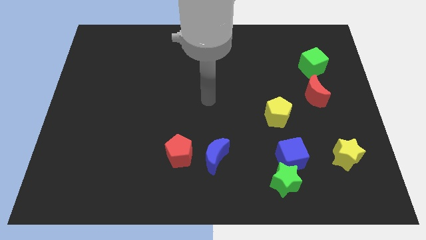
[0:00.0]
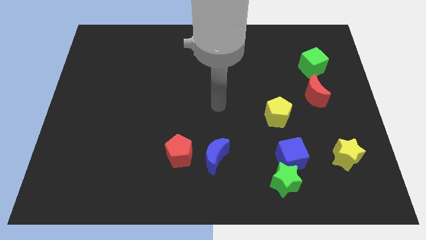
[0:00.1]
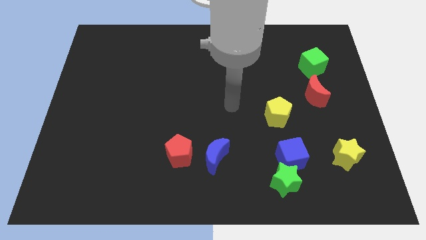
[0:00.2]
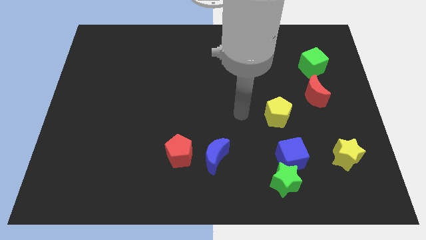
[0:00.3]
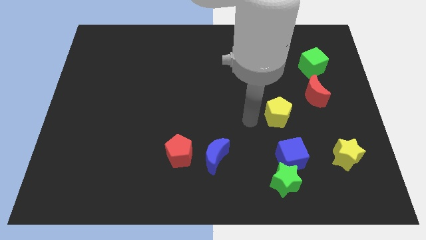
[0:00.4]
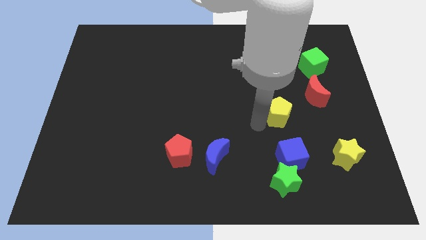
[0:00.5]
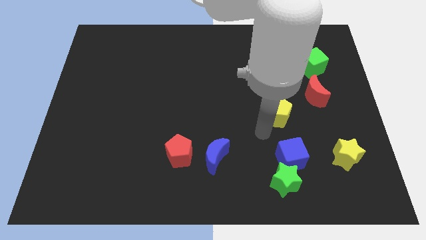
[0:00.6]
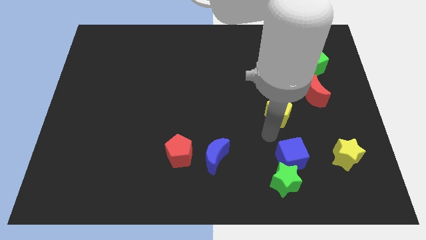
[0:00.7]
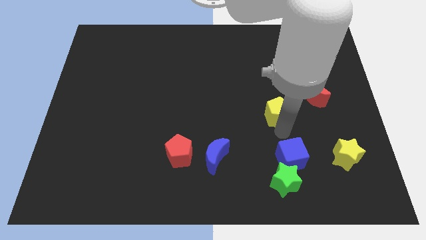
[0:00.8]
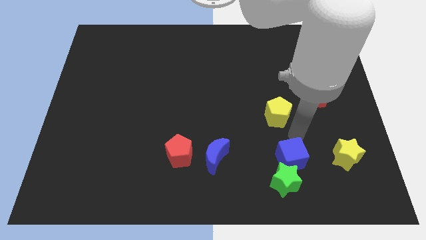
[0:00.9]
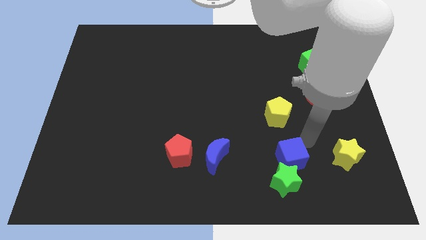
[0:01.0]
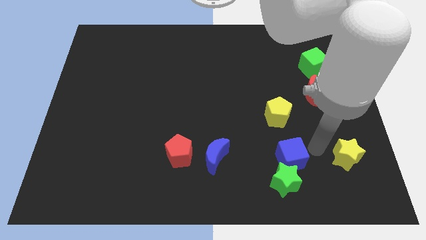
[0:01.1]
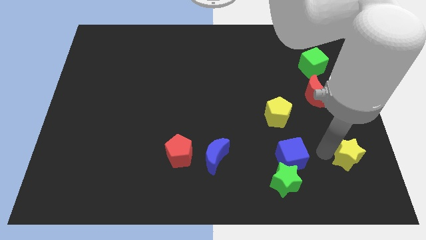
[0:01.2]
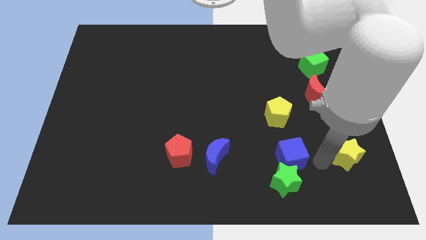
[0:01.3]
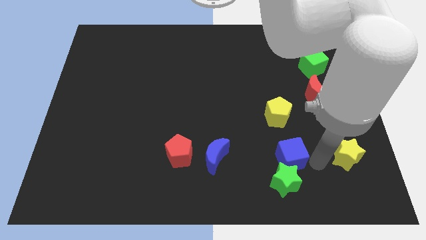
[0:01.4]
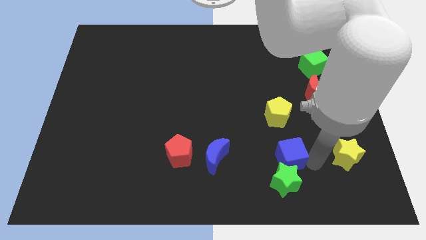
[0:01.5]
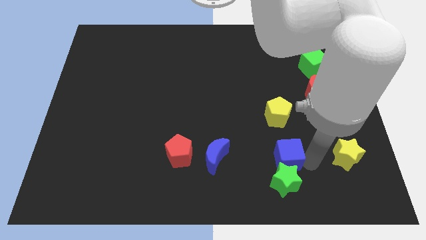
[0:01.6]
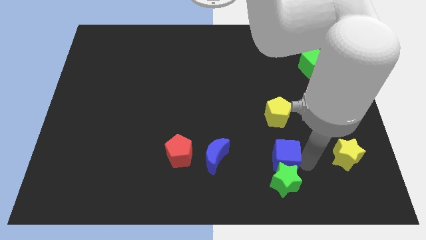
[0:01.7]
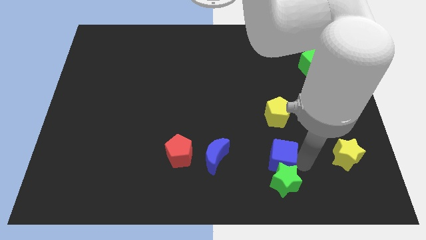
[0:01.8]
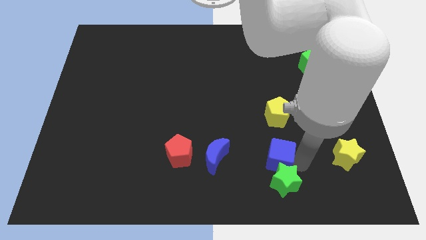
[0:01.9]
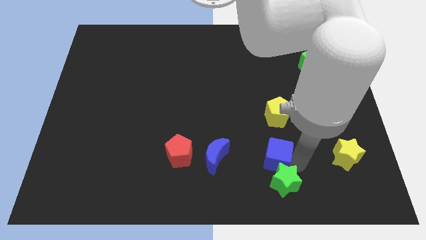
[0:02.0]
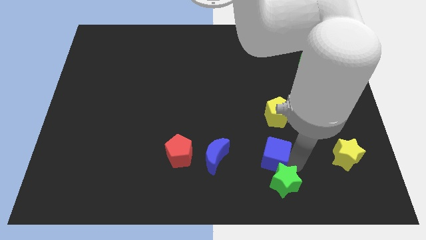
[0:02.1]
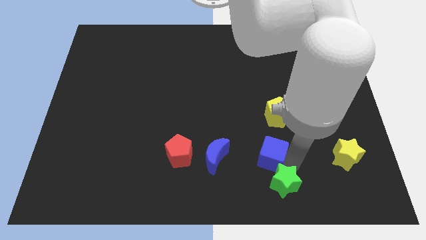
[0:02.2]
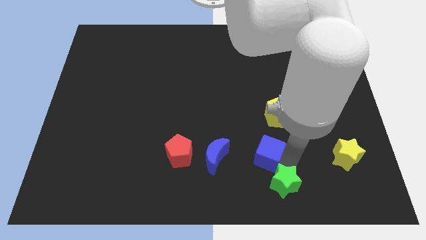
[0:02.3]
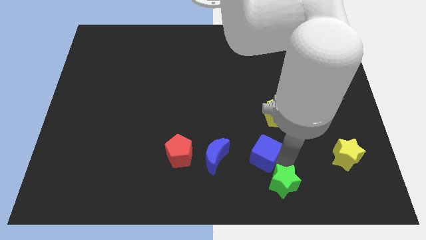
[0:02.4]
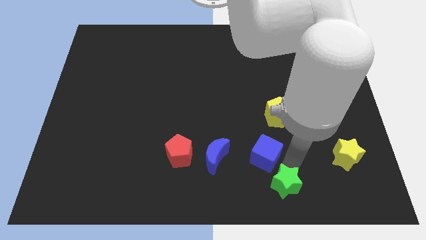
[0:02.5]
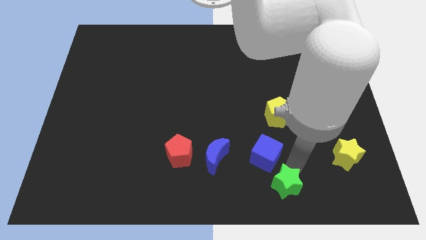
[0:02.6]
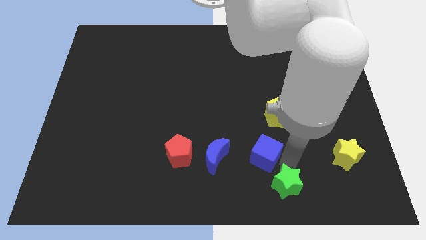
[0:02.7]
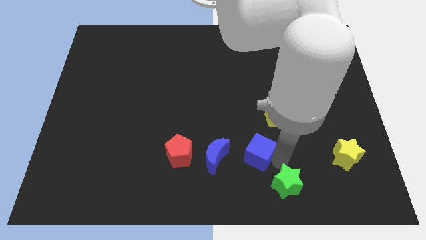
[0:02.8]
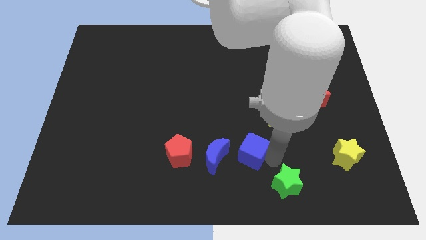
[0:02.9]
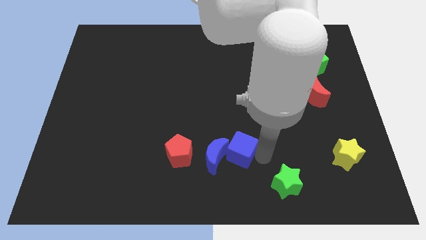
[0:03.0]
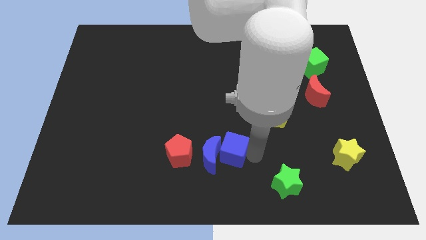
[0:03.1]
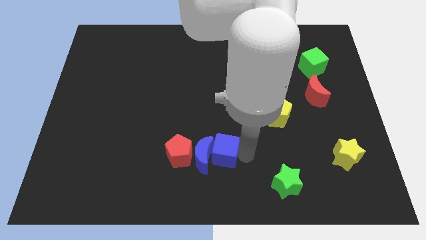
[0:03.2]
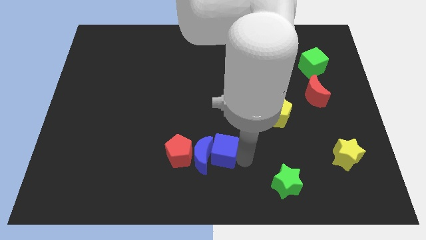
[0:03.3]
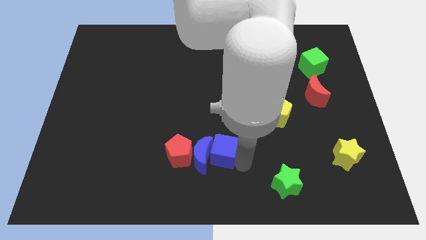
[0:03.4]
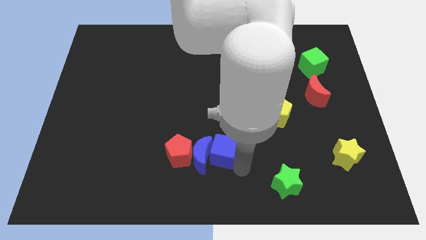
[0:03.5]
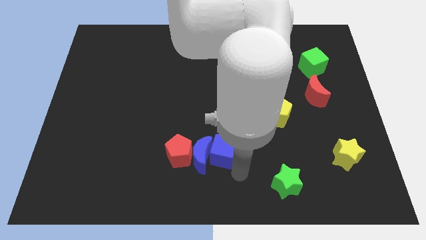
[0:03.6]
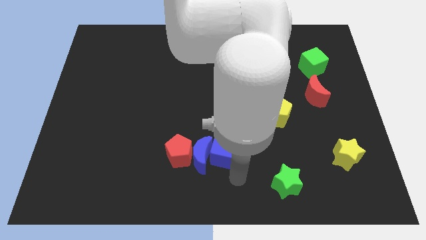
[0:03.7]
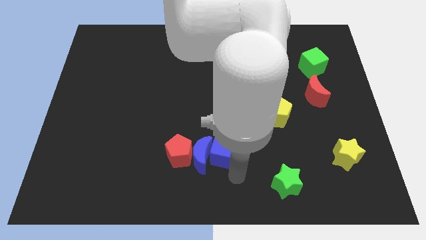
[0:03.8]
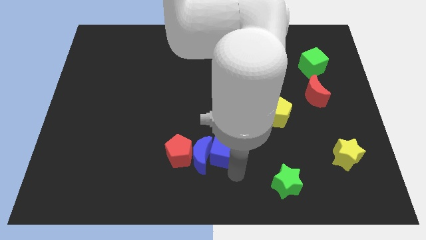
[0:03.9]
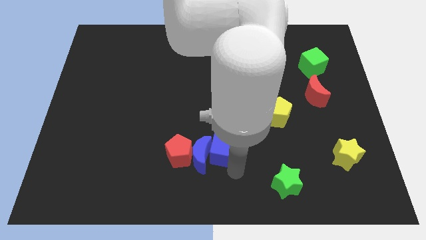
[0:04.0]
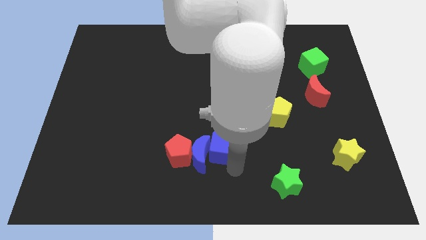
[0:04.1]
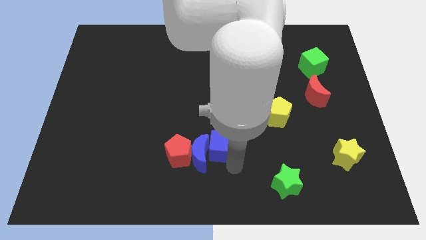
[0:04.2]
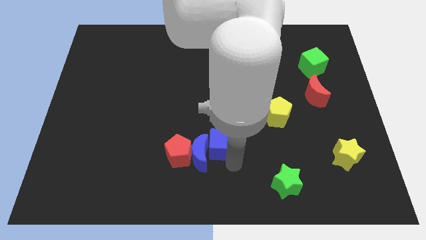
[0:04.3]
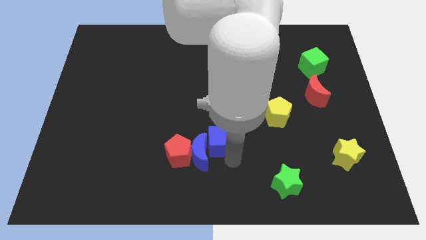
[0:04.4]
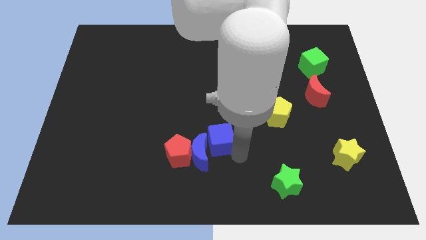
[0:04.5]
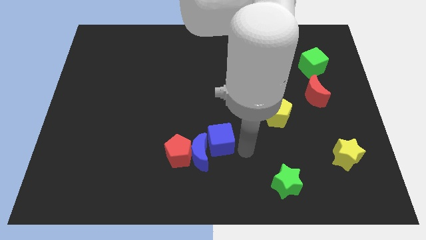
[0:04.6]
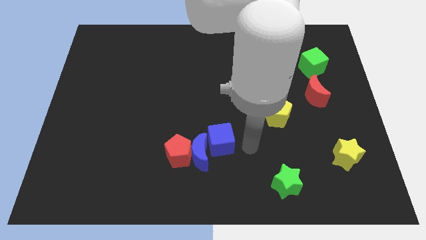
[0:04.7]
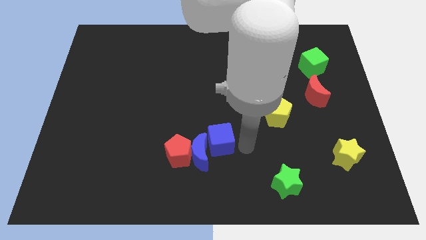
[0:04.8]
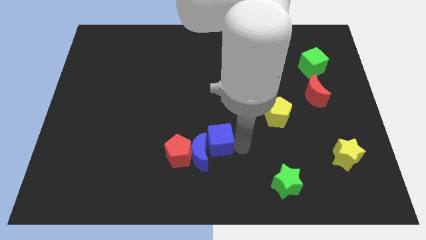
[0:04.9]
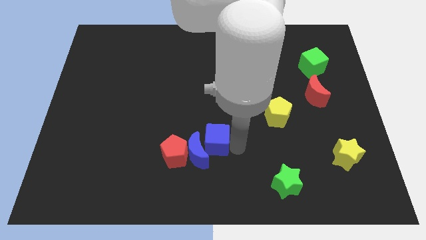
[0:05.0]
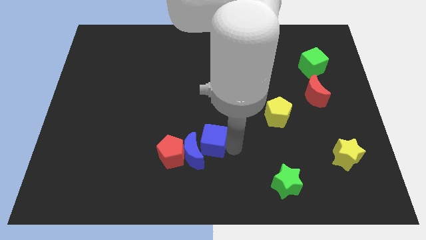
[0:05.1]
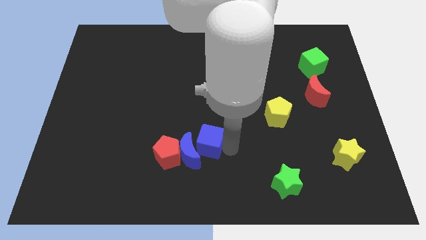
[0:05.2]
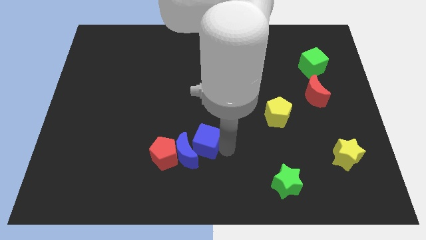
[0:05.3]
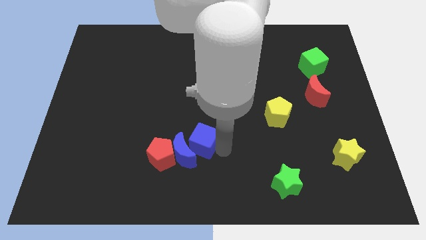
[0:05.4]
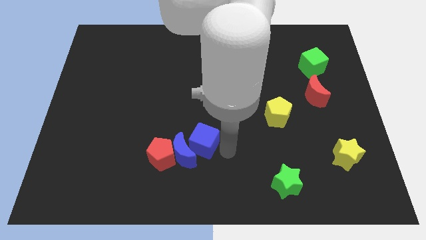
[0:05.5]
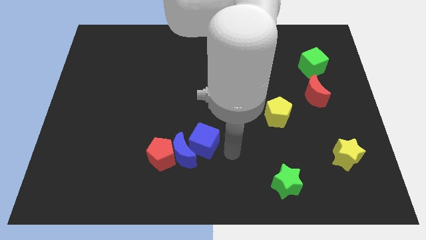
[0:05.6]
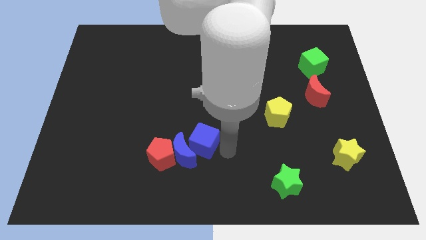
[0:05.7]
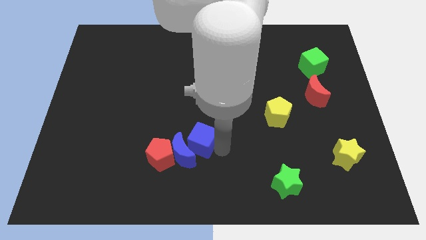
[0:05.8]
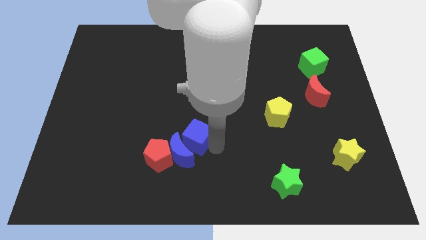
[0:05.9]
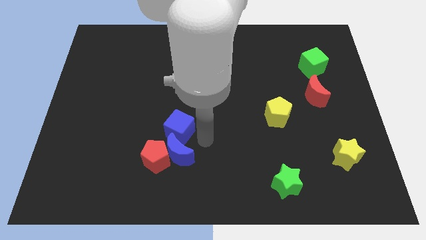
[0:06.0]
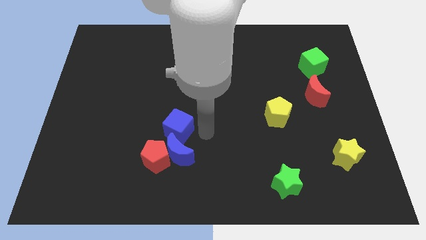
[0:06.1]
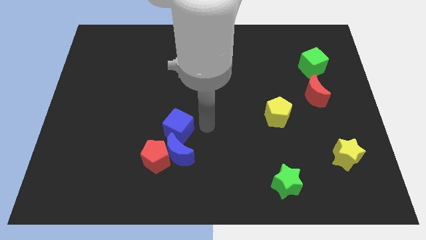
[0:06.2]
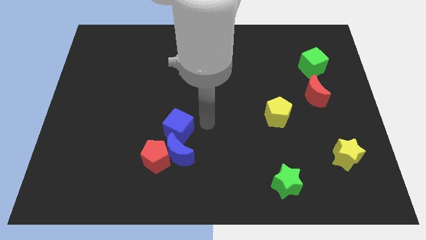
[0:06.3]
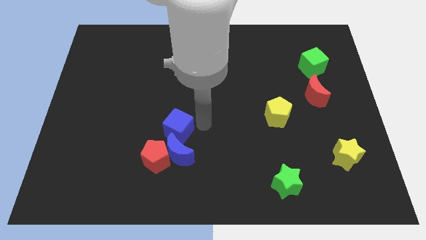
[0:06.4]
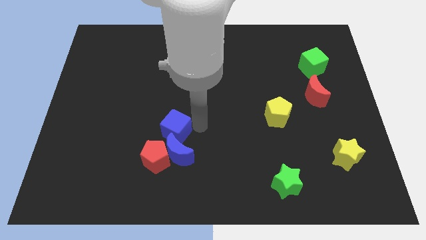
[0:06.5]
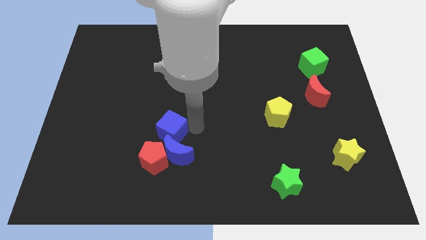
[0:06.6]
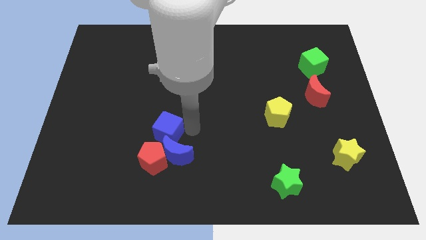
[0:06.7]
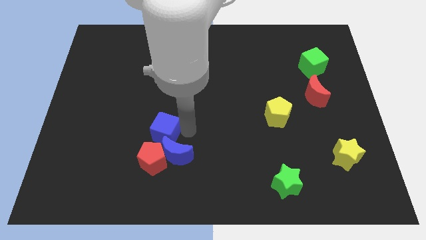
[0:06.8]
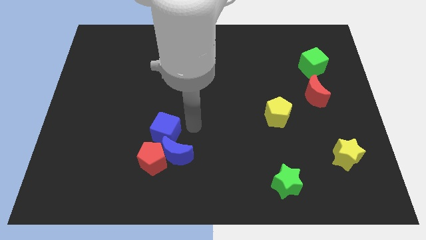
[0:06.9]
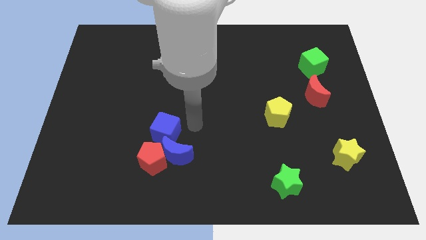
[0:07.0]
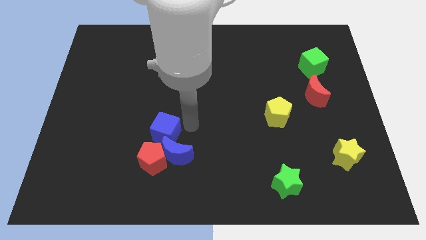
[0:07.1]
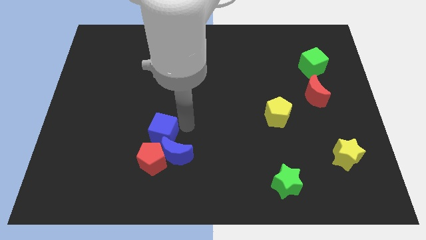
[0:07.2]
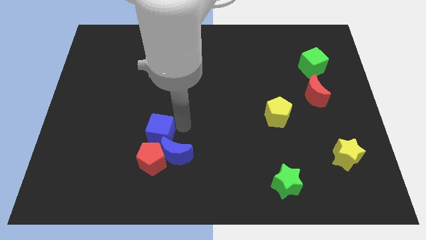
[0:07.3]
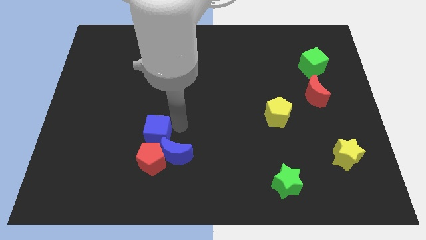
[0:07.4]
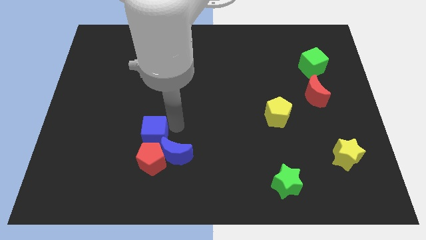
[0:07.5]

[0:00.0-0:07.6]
move the blue cube diagonally up and to the left of the red pentagon

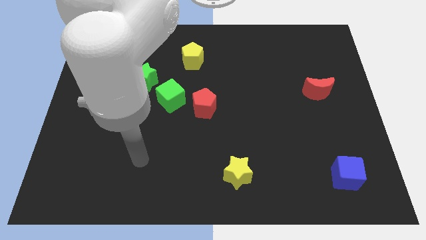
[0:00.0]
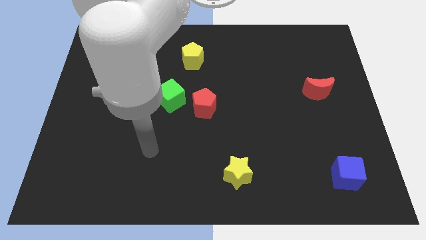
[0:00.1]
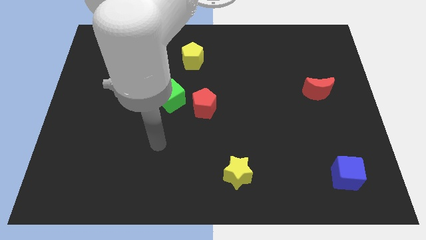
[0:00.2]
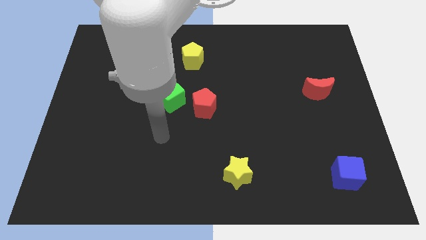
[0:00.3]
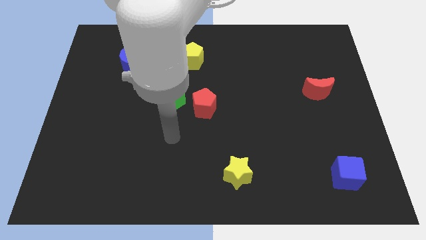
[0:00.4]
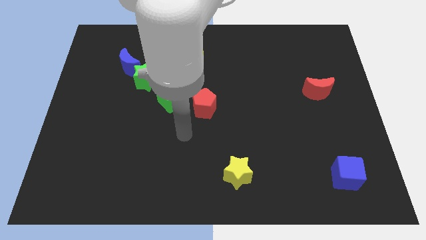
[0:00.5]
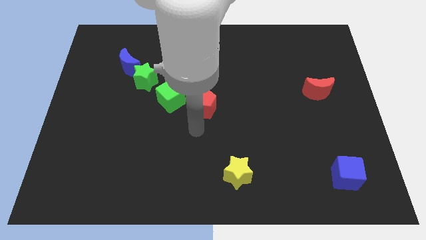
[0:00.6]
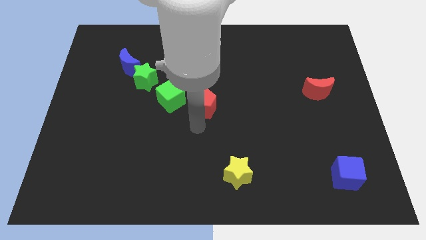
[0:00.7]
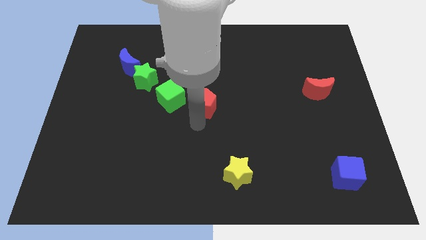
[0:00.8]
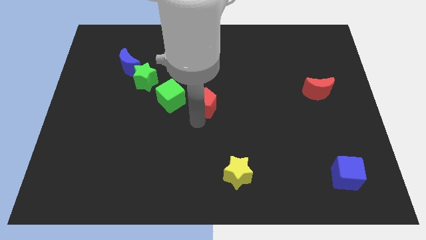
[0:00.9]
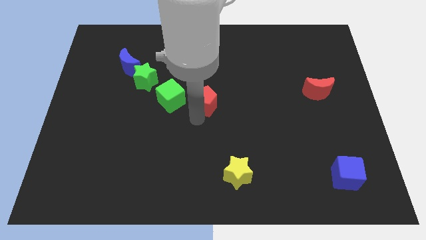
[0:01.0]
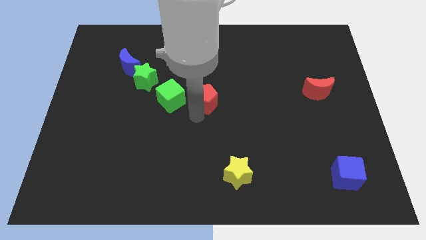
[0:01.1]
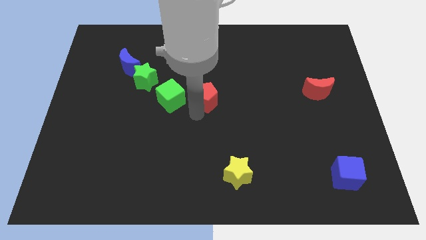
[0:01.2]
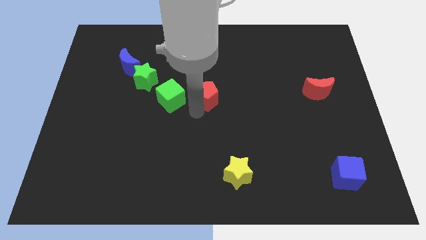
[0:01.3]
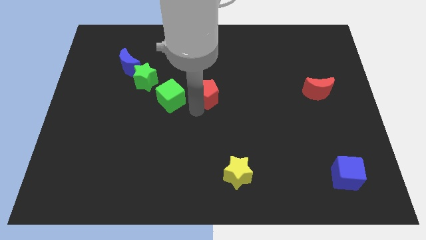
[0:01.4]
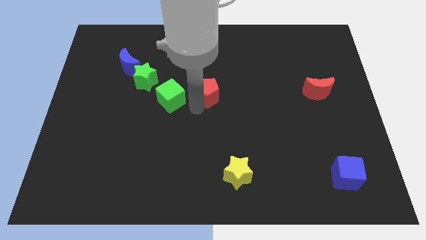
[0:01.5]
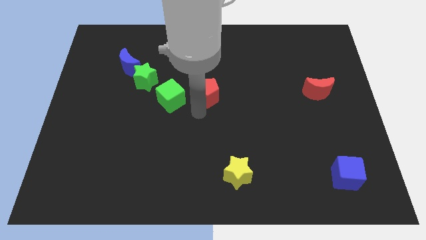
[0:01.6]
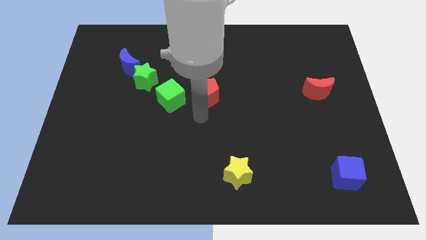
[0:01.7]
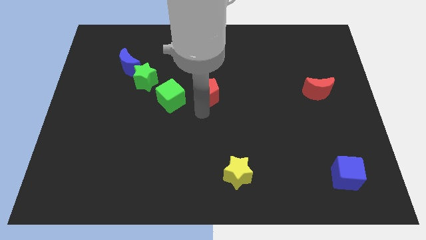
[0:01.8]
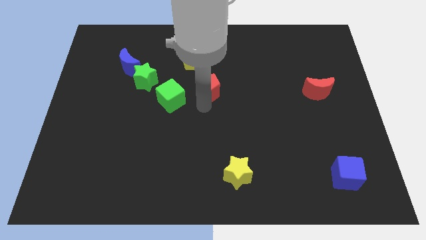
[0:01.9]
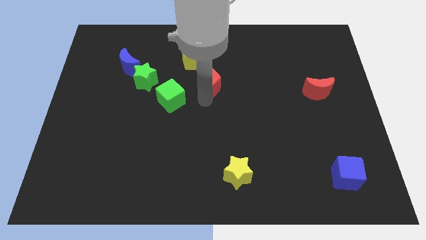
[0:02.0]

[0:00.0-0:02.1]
slide the red pentagon diagonally down and to the right of the yellow pentagon
